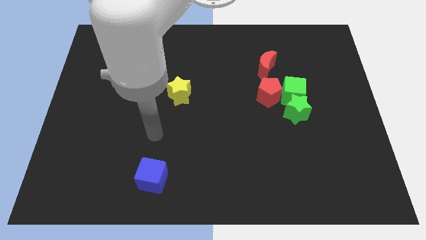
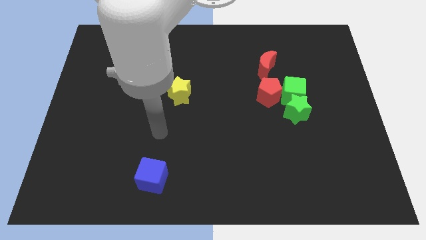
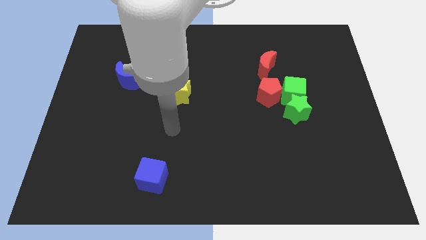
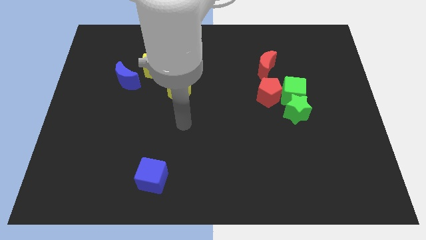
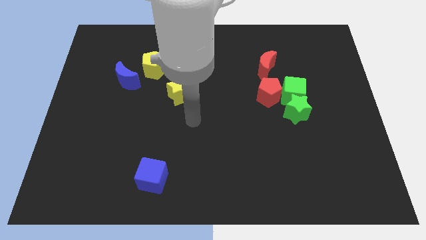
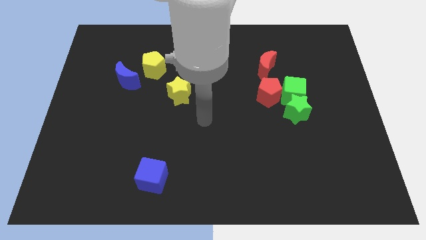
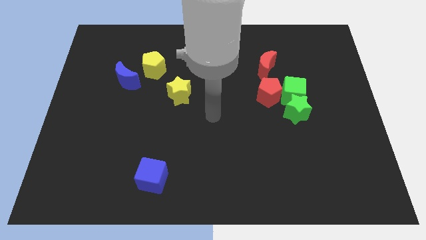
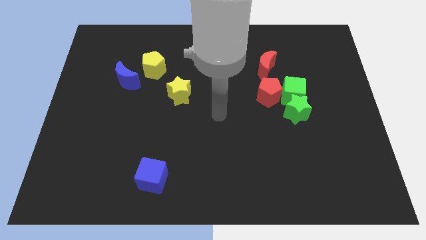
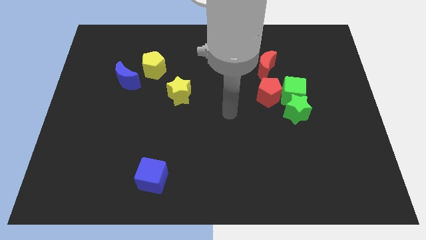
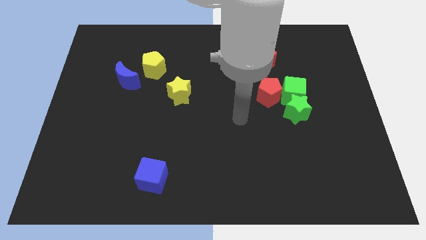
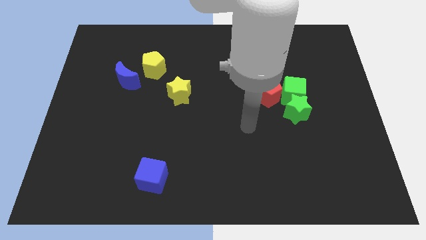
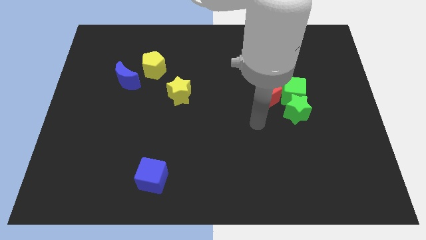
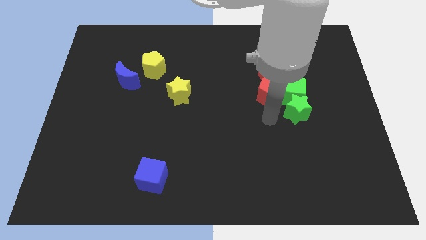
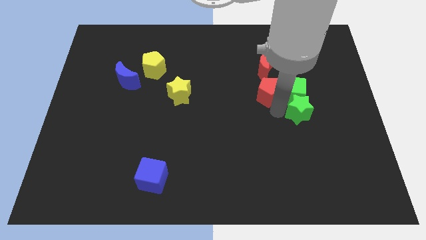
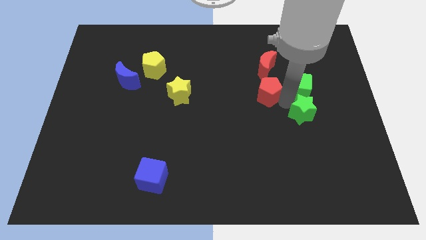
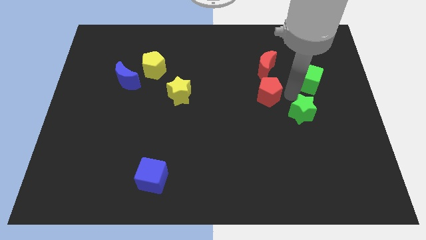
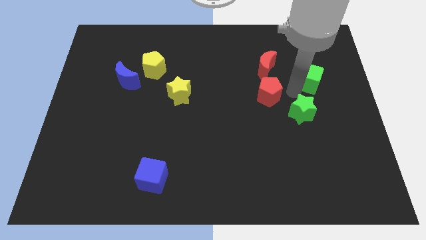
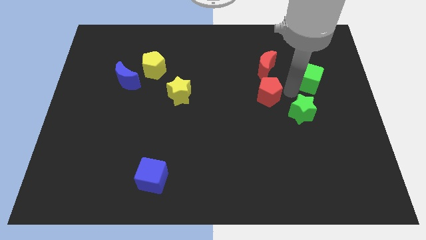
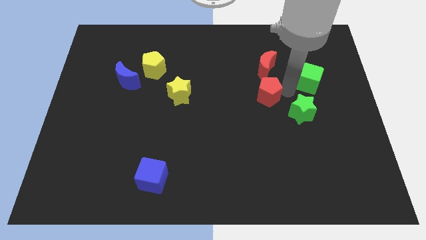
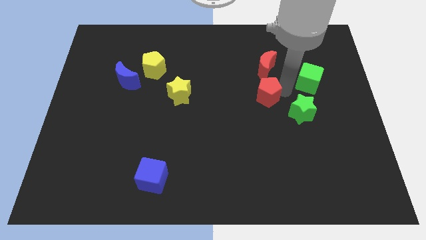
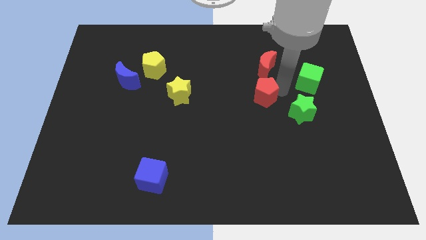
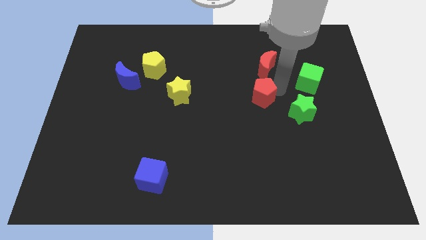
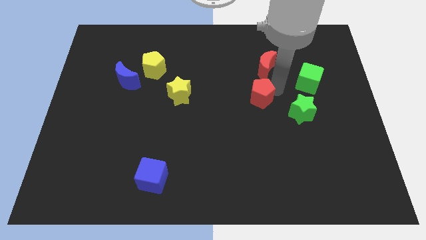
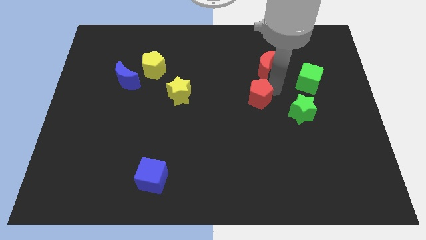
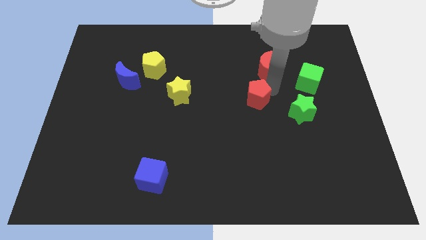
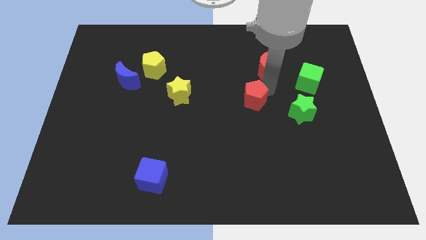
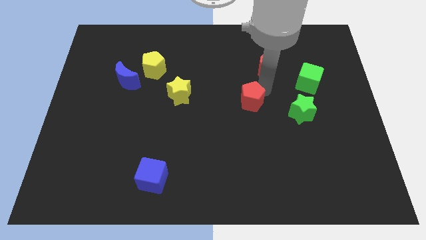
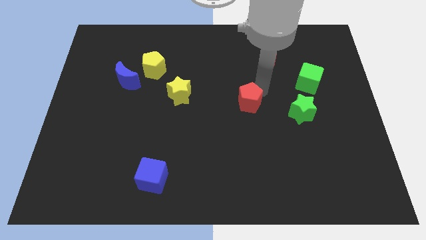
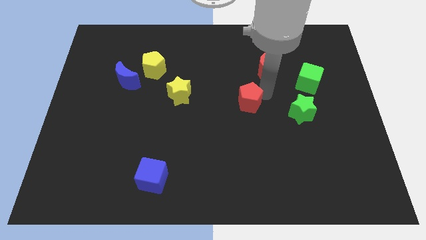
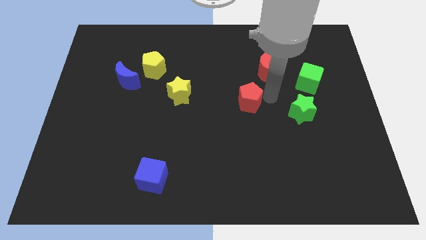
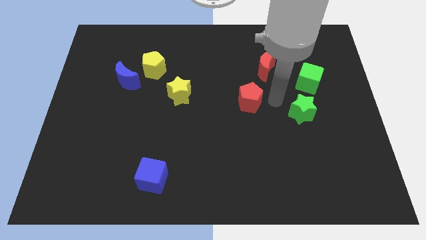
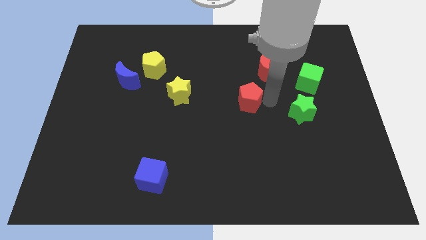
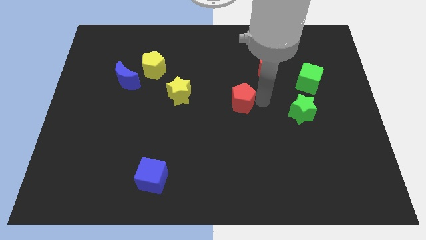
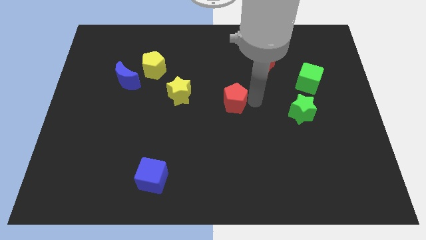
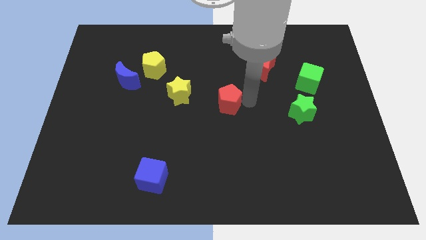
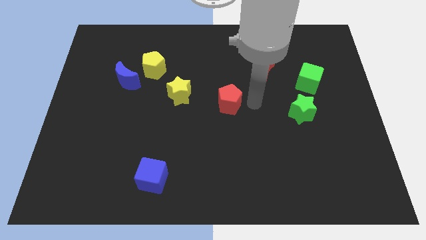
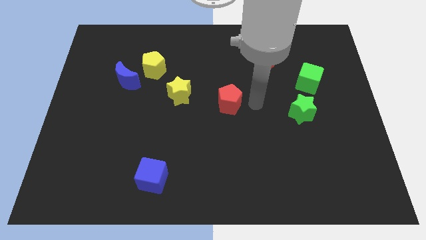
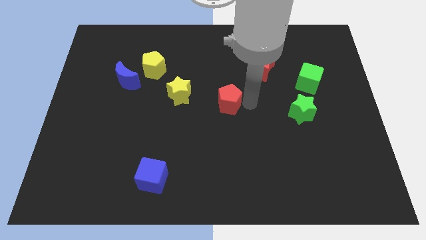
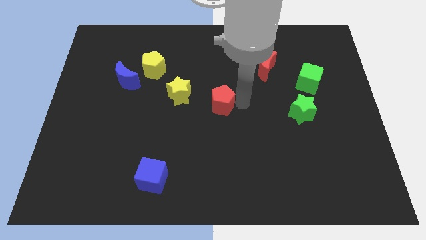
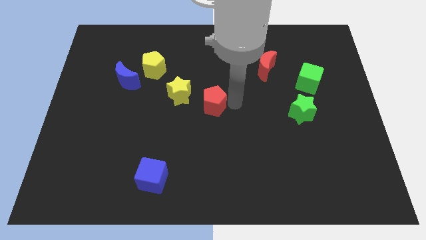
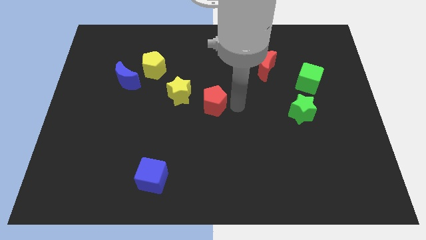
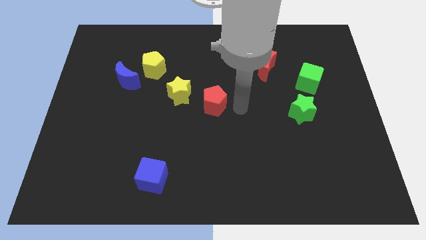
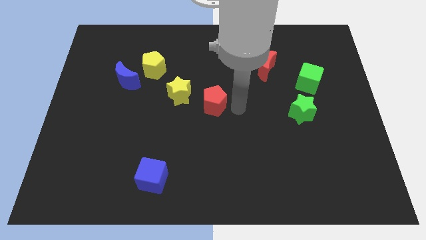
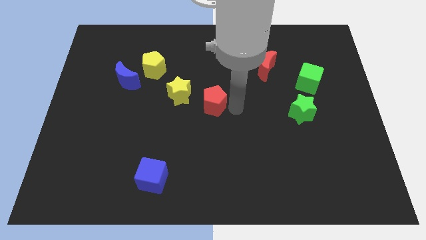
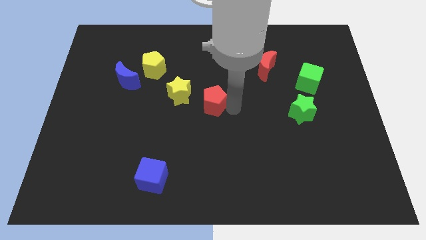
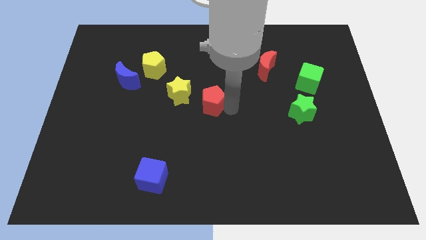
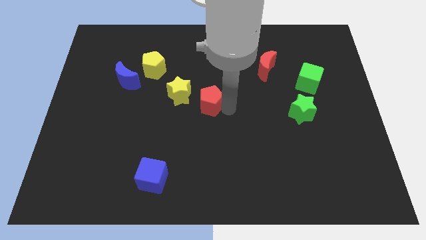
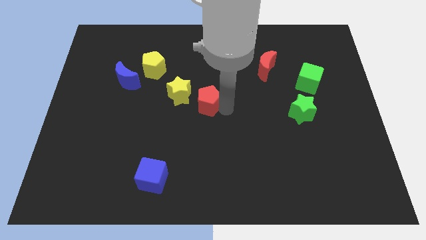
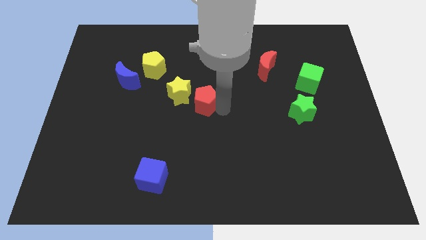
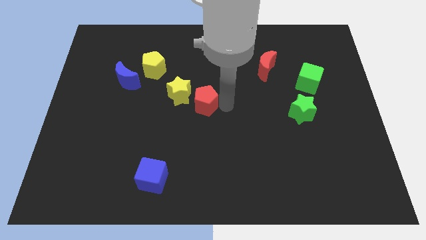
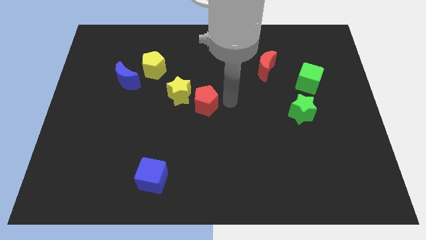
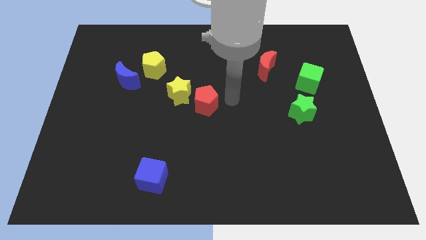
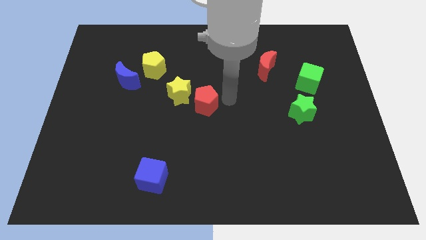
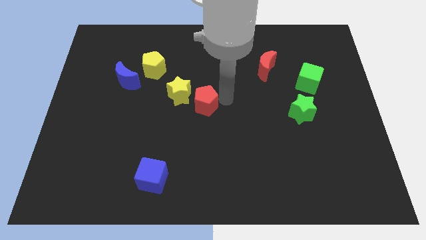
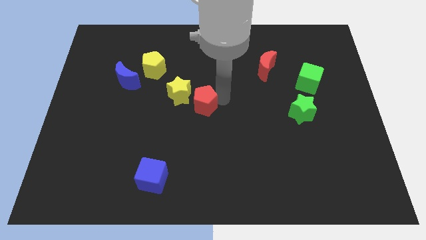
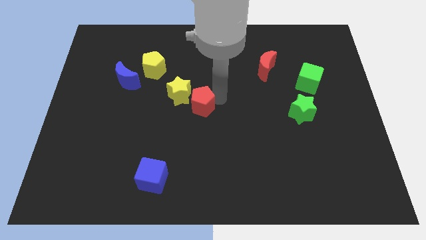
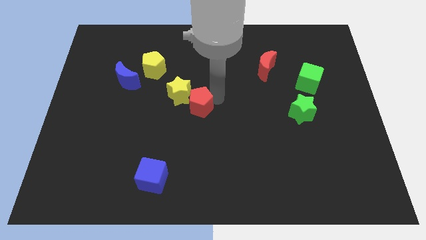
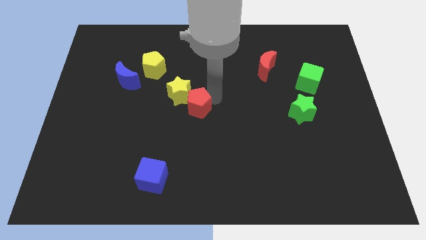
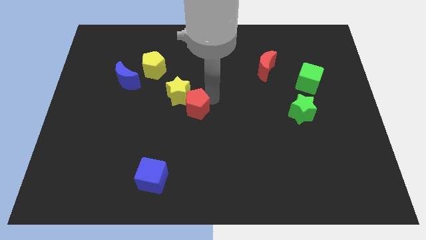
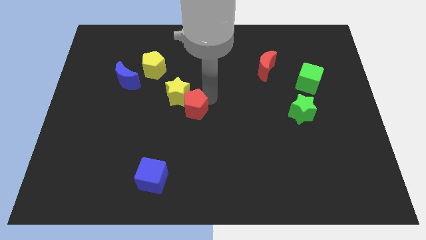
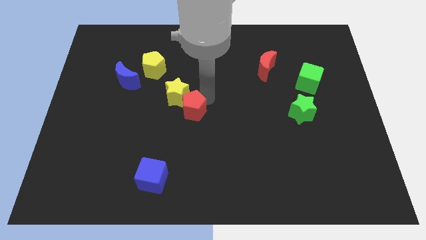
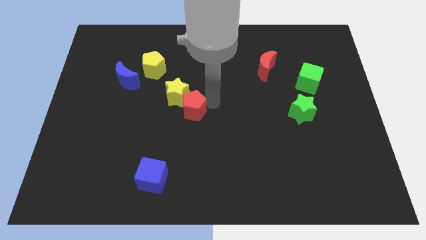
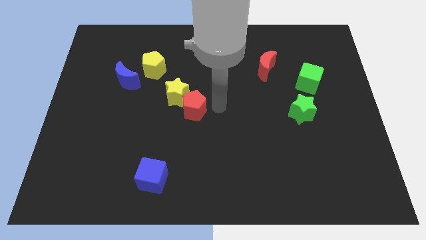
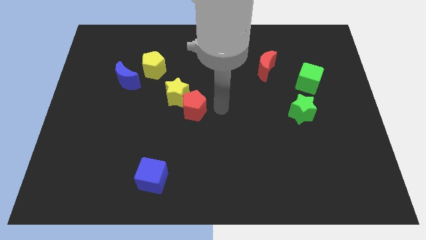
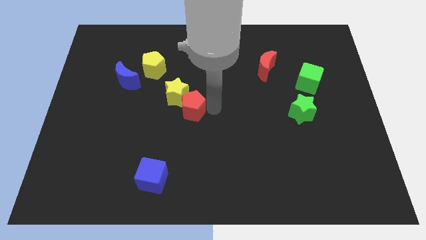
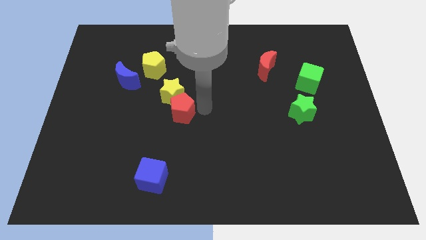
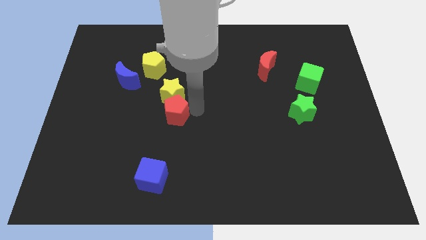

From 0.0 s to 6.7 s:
slide the red pentagon to the left

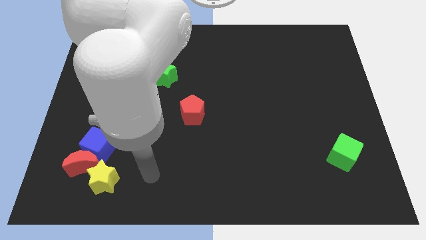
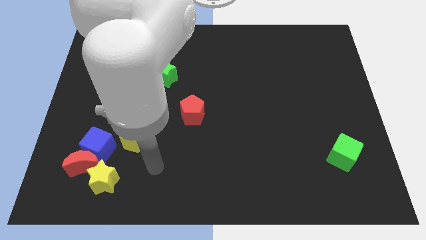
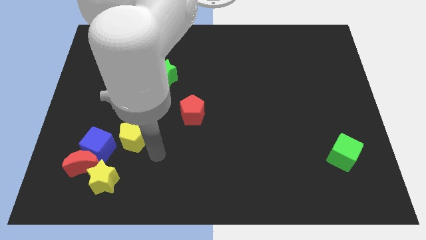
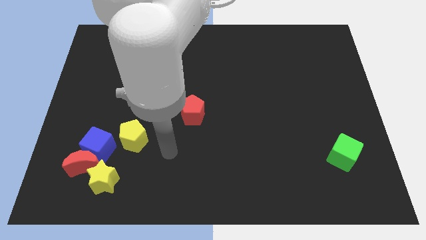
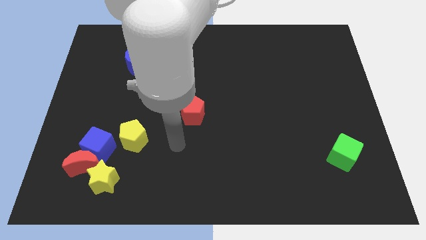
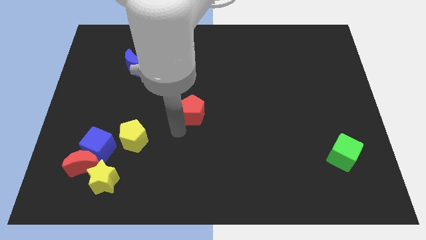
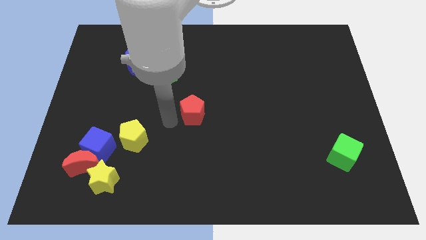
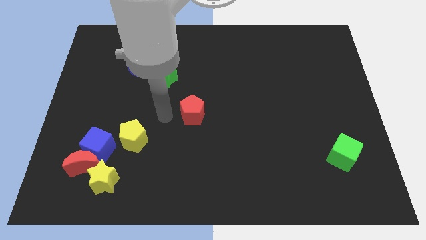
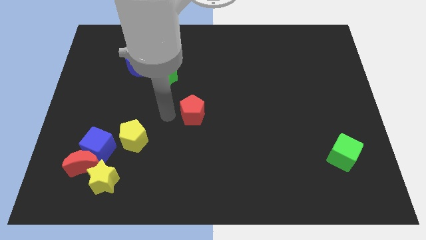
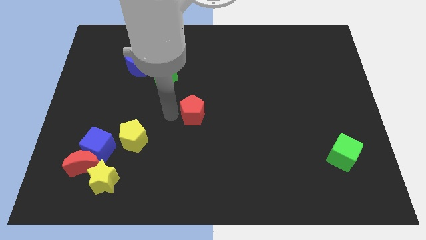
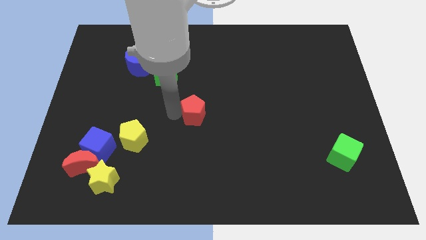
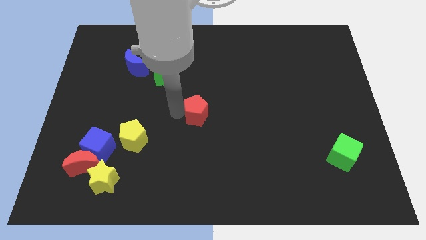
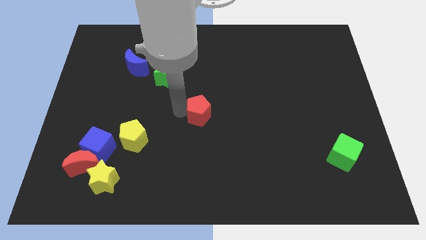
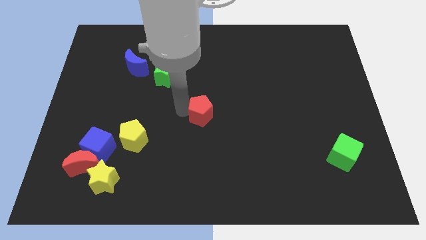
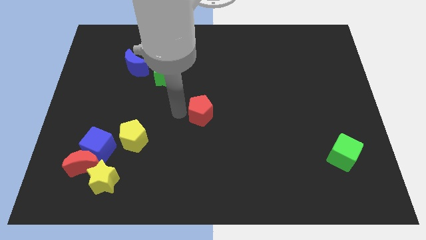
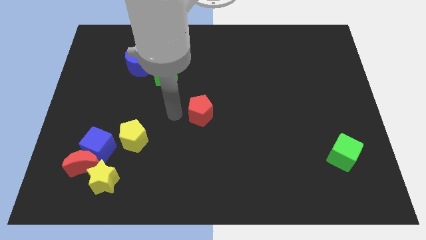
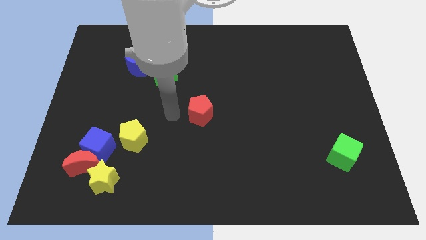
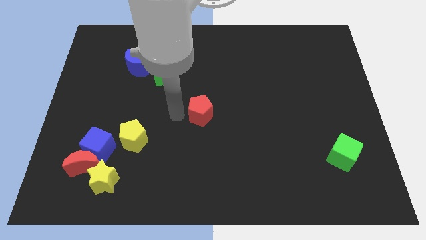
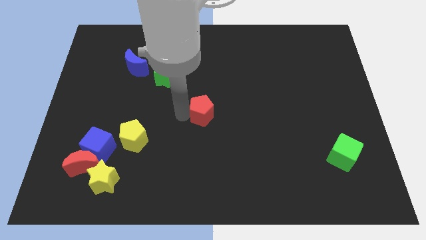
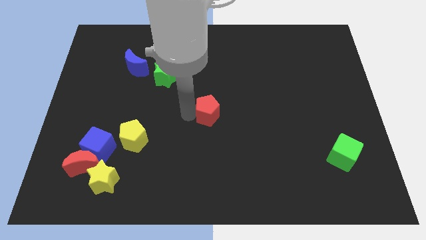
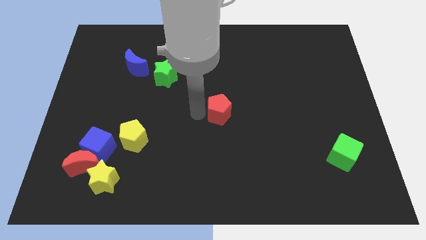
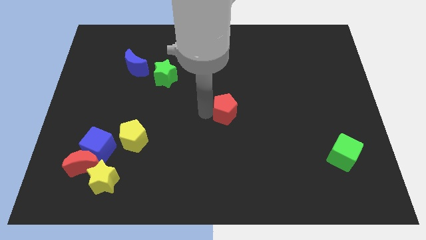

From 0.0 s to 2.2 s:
push the red pentagon right slightly
